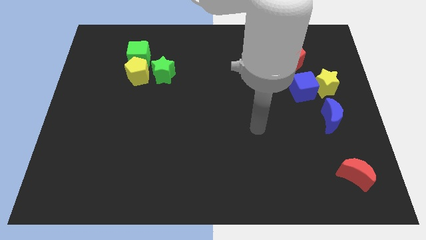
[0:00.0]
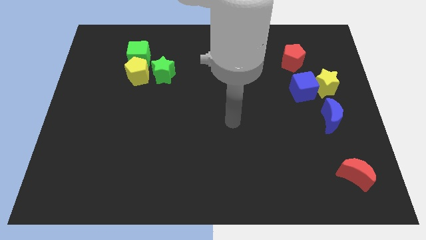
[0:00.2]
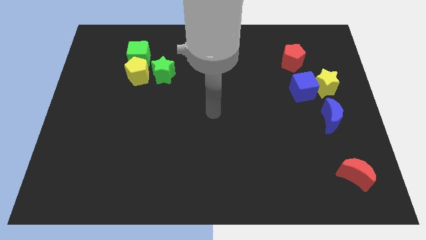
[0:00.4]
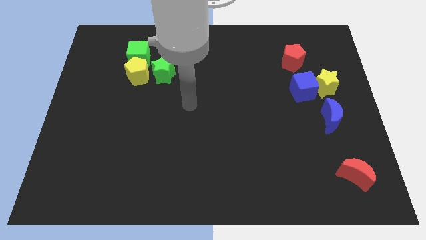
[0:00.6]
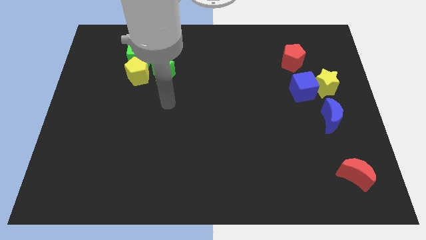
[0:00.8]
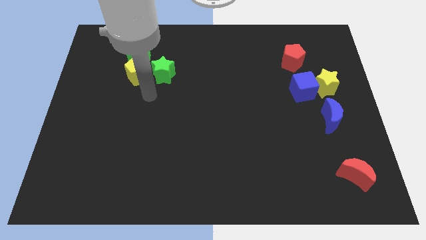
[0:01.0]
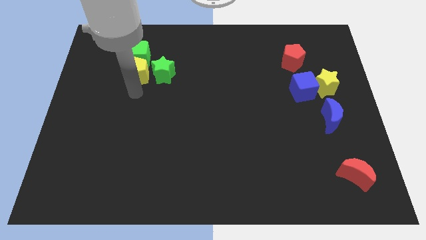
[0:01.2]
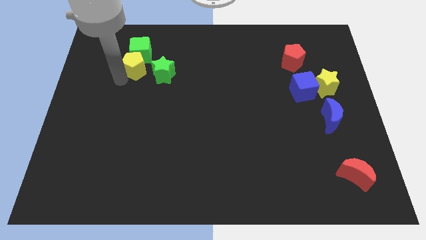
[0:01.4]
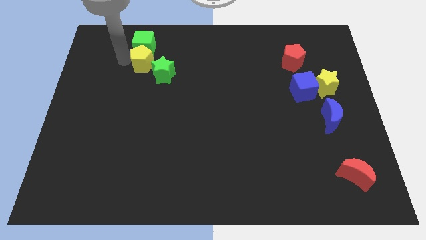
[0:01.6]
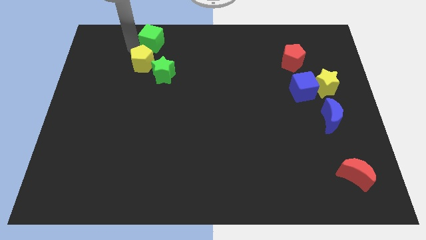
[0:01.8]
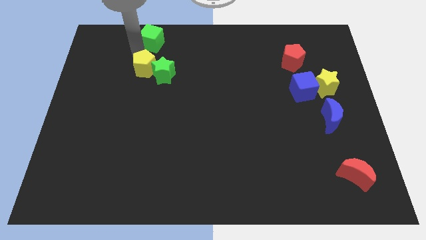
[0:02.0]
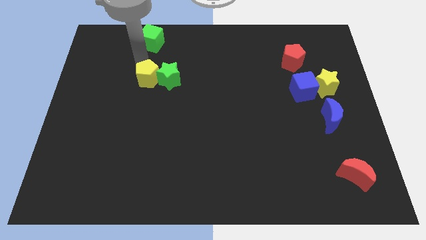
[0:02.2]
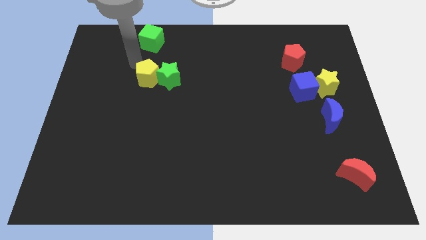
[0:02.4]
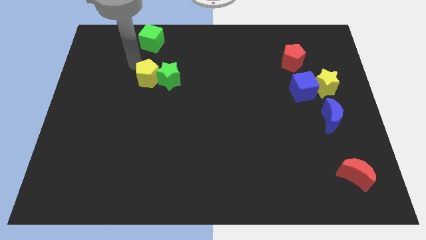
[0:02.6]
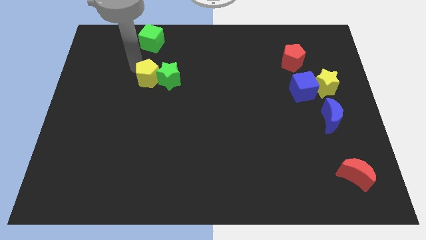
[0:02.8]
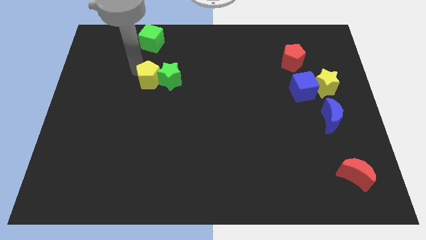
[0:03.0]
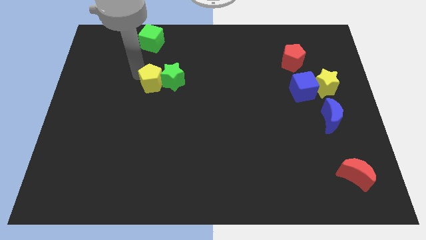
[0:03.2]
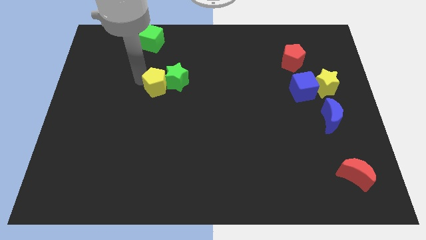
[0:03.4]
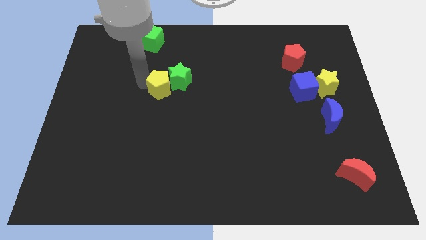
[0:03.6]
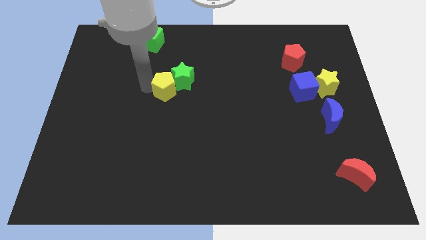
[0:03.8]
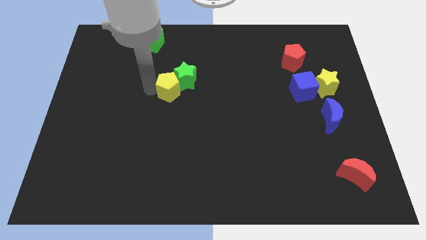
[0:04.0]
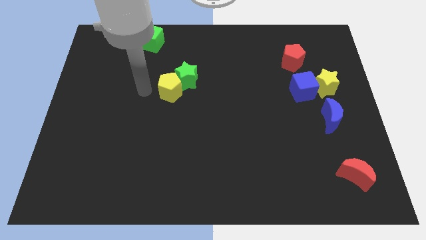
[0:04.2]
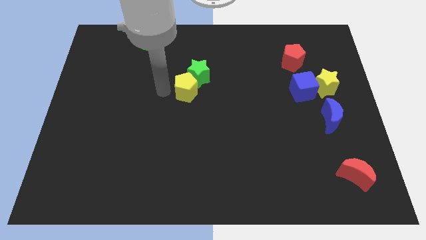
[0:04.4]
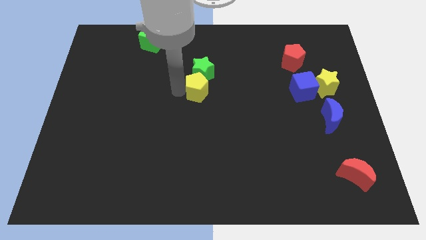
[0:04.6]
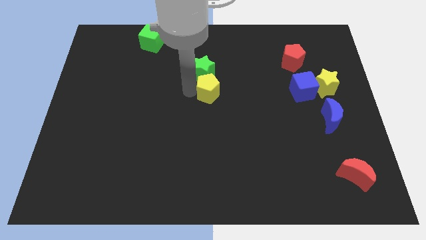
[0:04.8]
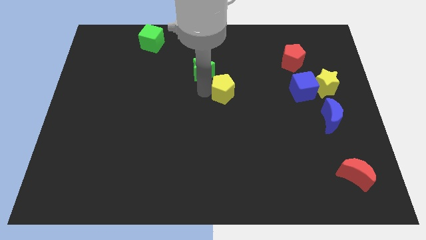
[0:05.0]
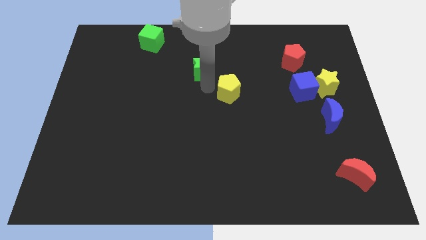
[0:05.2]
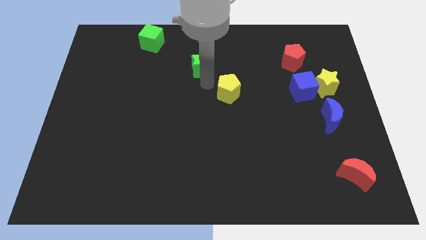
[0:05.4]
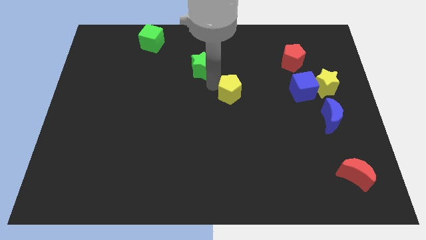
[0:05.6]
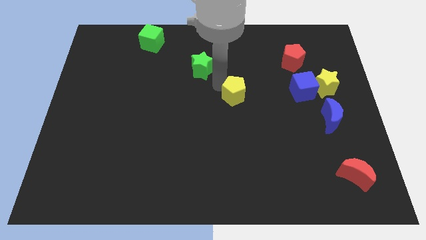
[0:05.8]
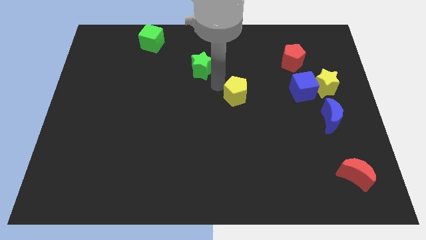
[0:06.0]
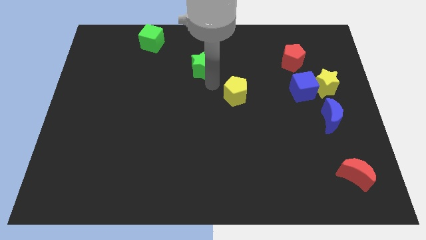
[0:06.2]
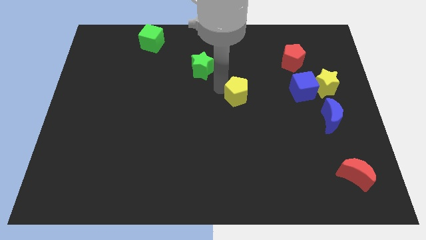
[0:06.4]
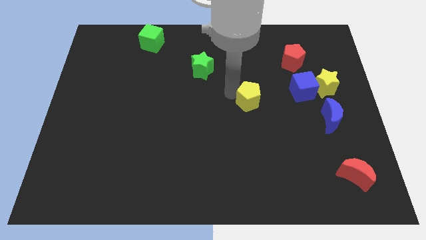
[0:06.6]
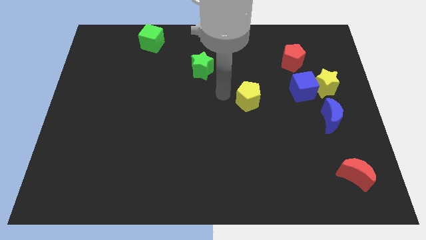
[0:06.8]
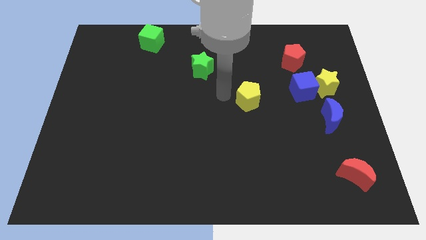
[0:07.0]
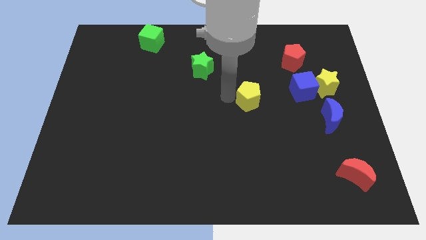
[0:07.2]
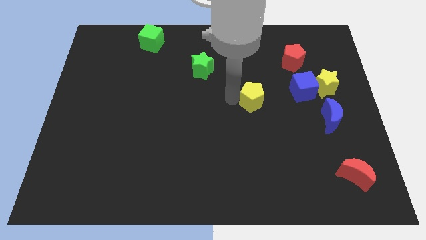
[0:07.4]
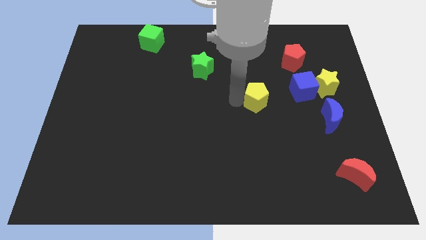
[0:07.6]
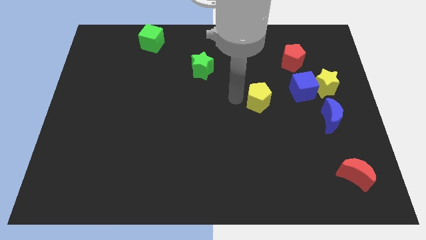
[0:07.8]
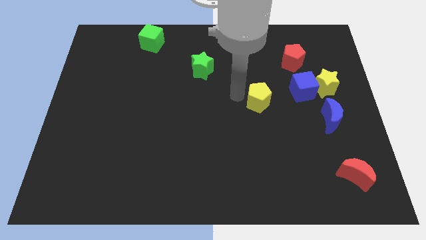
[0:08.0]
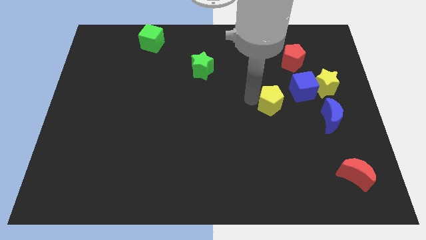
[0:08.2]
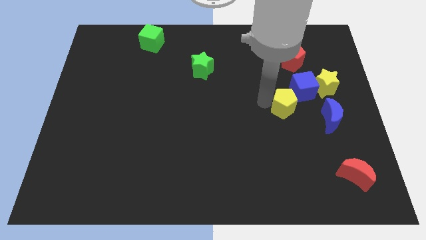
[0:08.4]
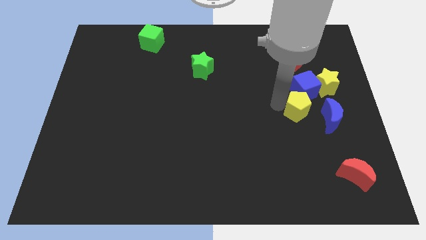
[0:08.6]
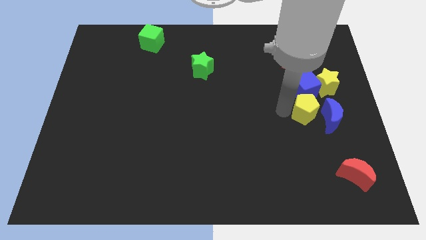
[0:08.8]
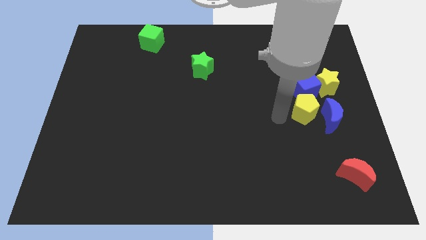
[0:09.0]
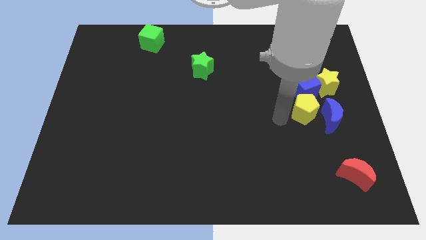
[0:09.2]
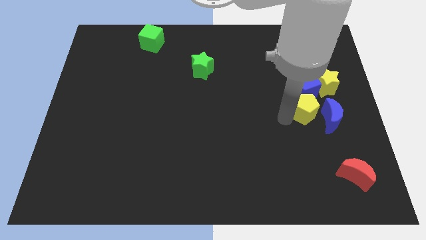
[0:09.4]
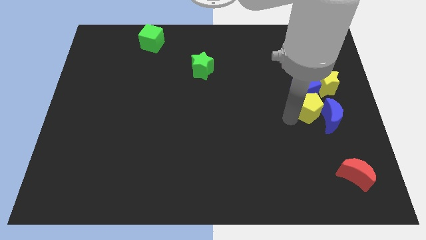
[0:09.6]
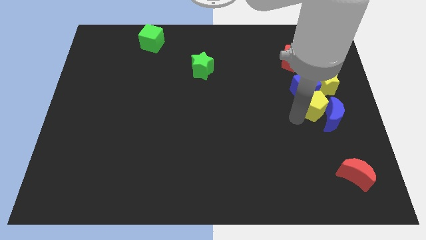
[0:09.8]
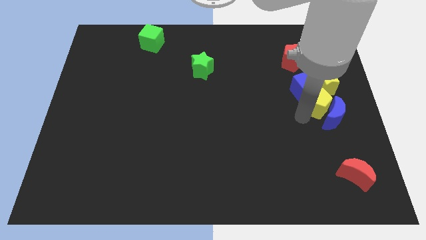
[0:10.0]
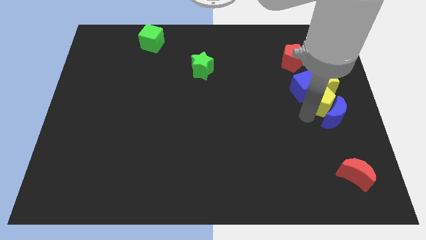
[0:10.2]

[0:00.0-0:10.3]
put the yellow pentagon to the right side

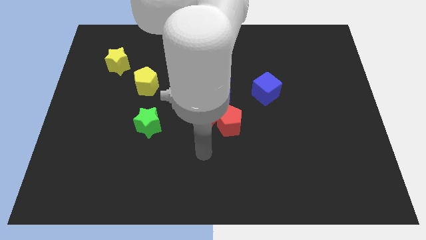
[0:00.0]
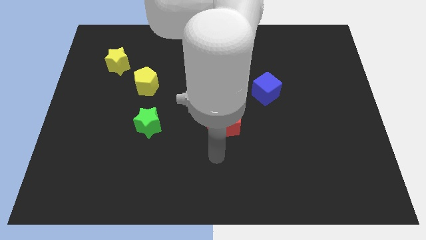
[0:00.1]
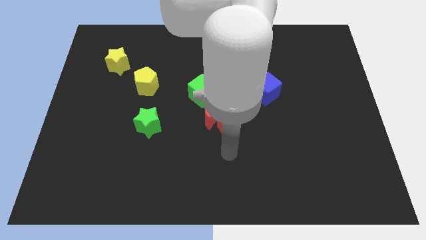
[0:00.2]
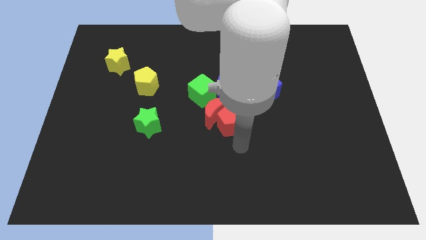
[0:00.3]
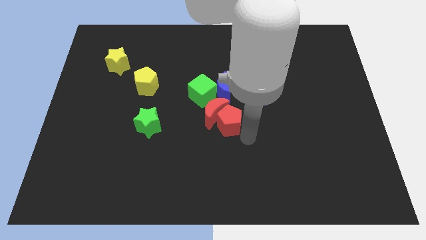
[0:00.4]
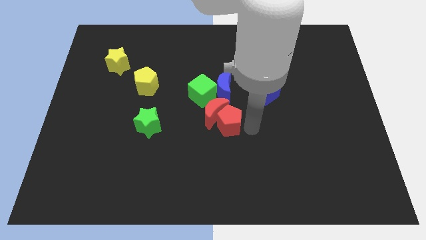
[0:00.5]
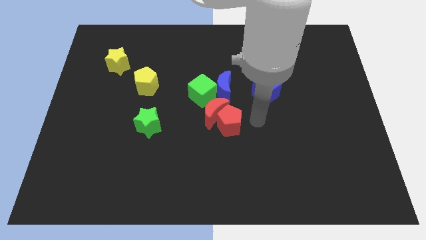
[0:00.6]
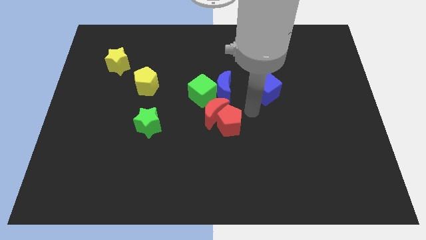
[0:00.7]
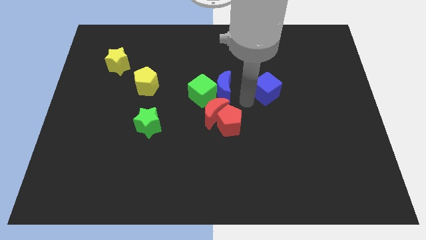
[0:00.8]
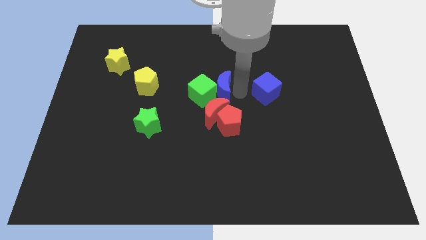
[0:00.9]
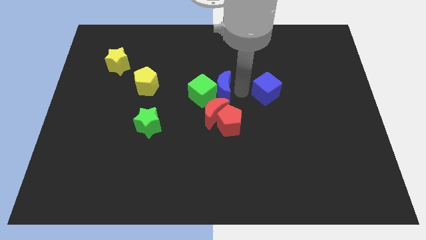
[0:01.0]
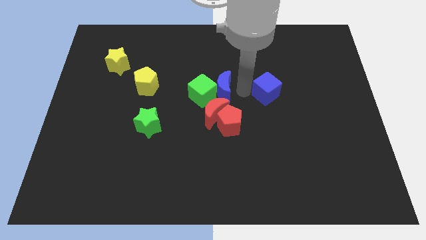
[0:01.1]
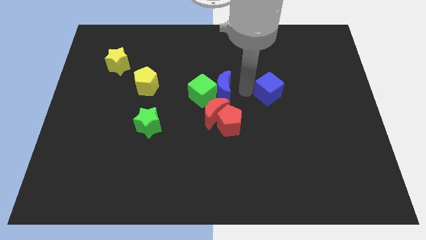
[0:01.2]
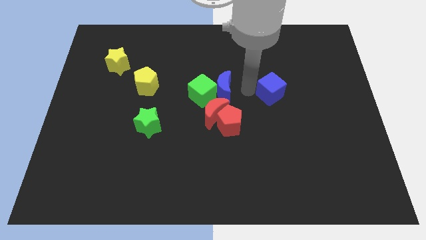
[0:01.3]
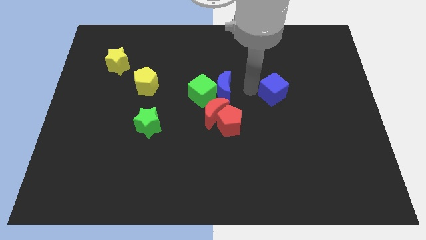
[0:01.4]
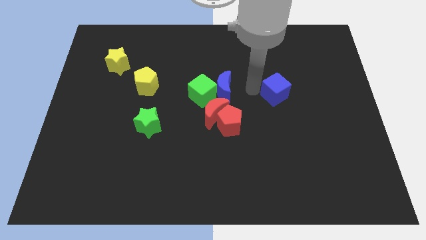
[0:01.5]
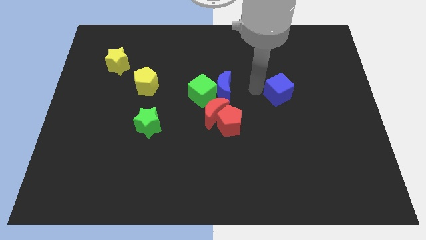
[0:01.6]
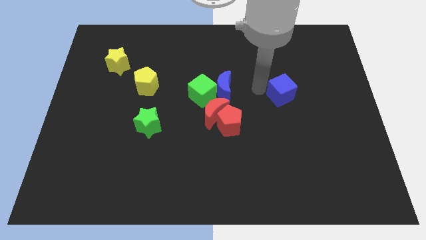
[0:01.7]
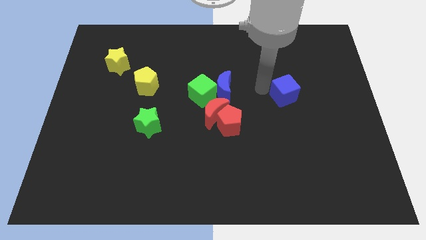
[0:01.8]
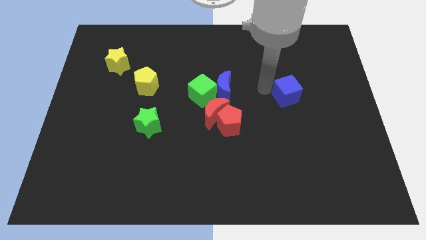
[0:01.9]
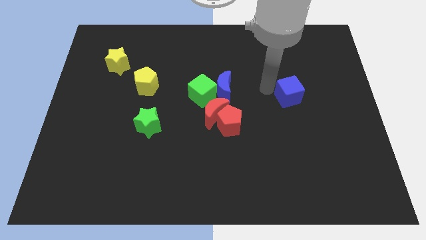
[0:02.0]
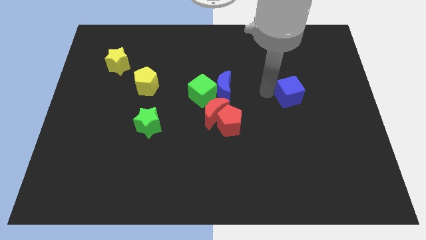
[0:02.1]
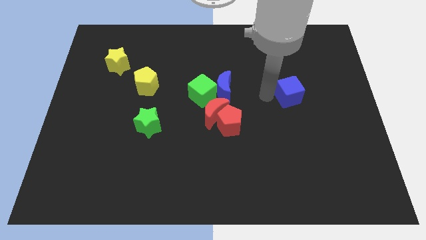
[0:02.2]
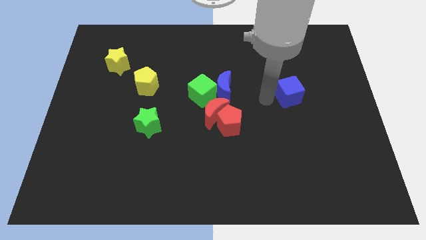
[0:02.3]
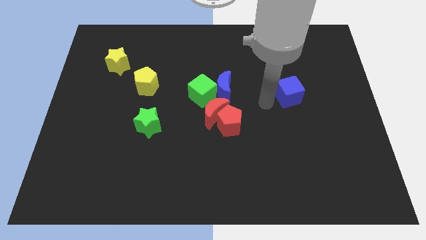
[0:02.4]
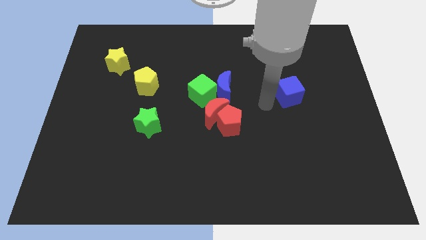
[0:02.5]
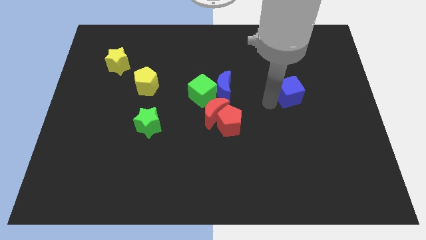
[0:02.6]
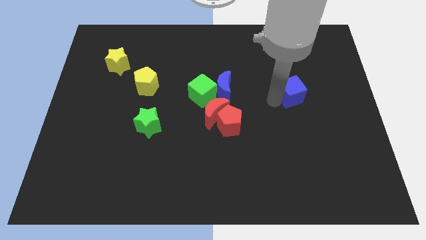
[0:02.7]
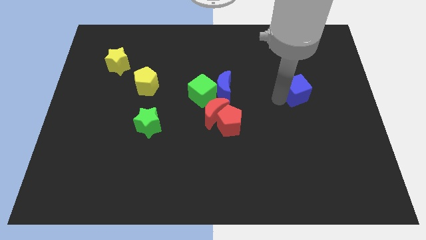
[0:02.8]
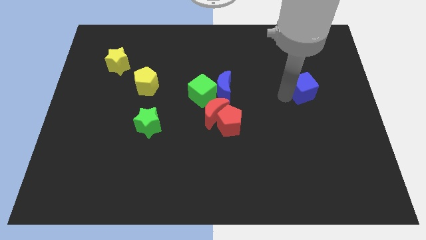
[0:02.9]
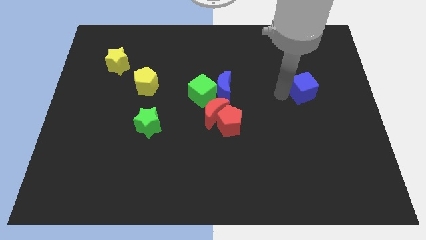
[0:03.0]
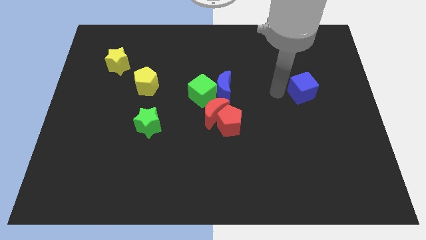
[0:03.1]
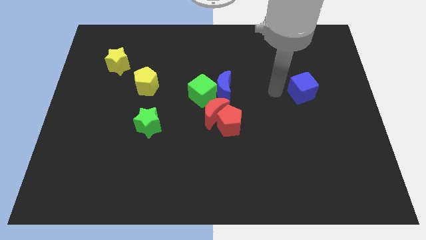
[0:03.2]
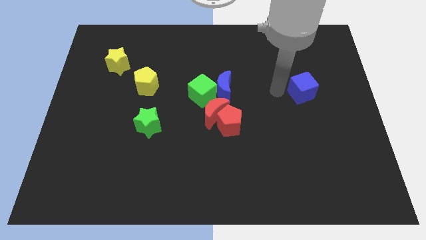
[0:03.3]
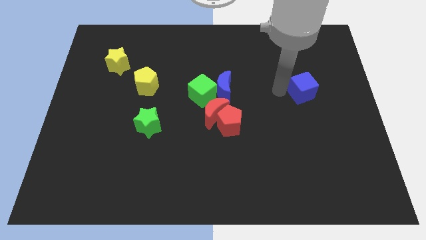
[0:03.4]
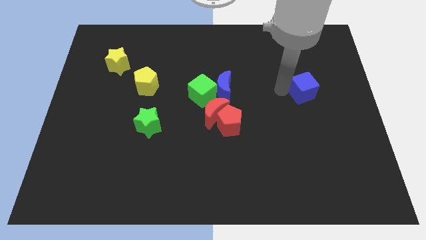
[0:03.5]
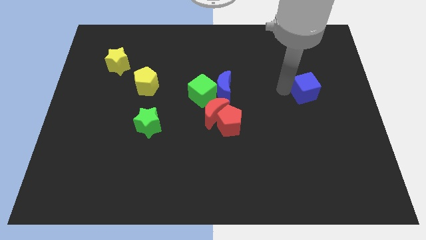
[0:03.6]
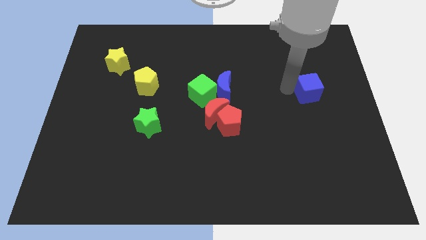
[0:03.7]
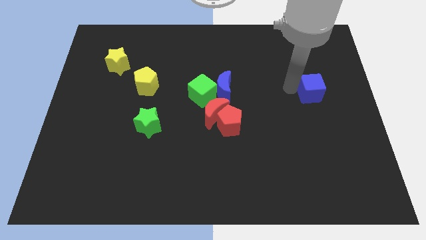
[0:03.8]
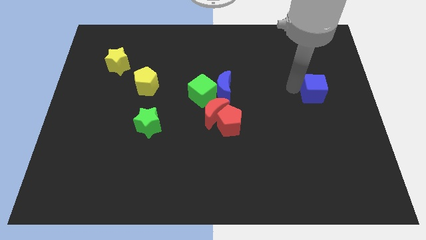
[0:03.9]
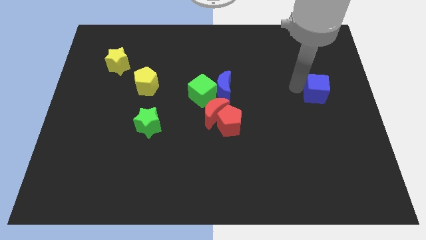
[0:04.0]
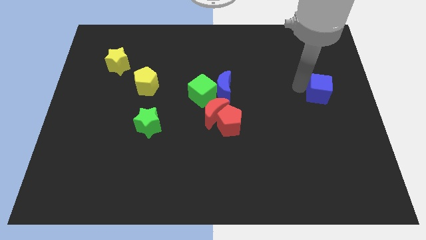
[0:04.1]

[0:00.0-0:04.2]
put the blue cube to the right side
